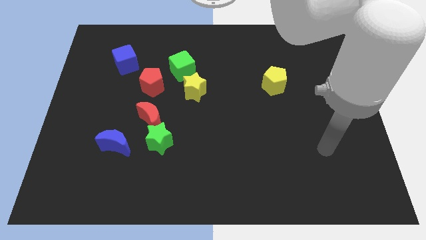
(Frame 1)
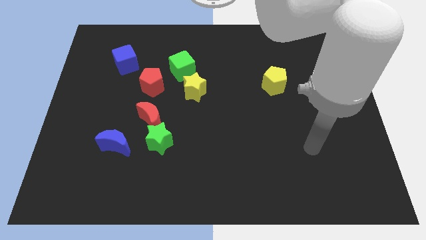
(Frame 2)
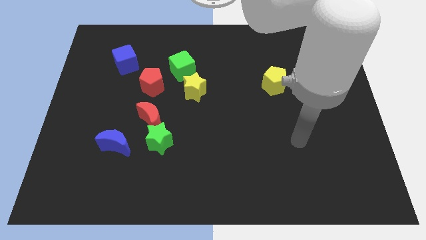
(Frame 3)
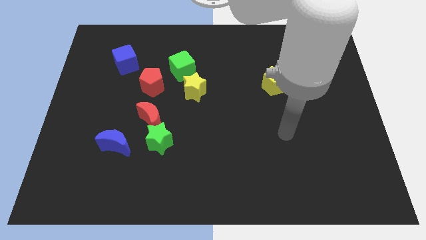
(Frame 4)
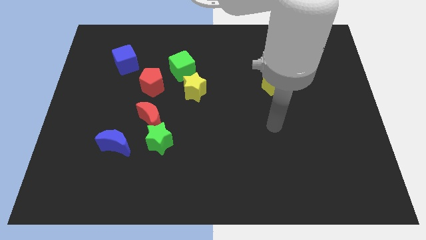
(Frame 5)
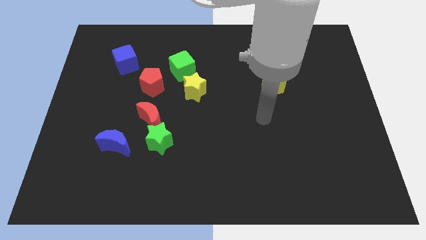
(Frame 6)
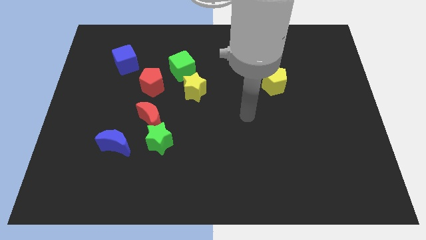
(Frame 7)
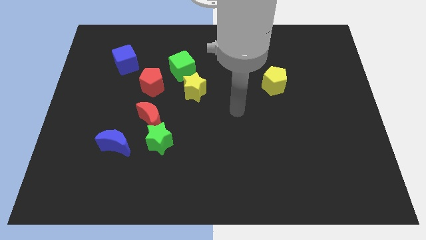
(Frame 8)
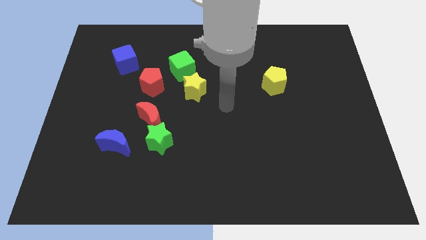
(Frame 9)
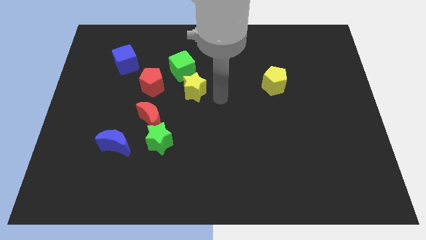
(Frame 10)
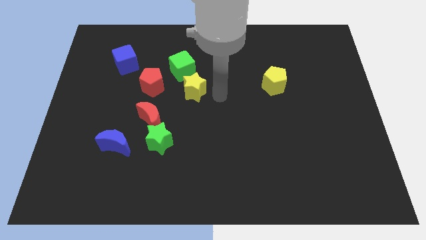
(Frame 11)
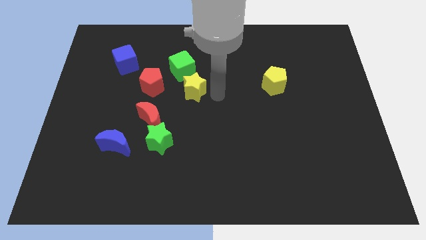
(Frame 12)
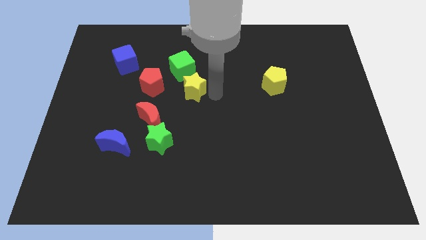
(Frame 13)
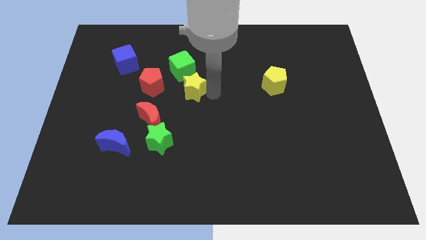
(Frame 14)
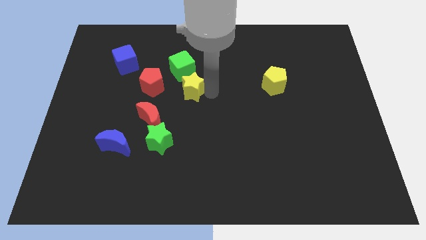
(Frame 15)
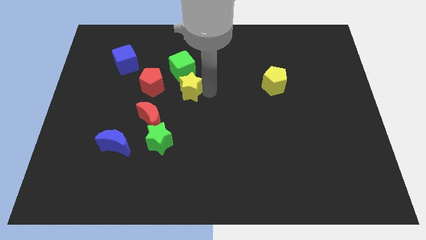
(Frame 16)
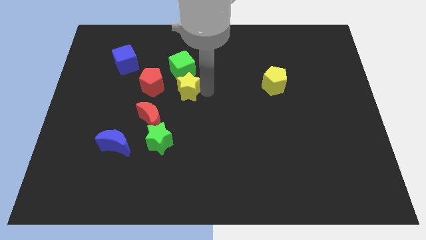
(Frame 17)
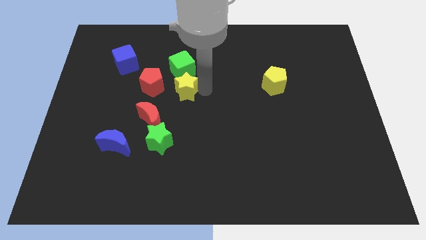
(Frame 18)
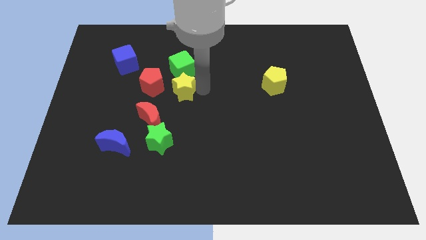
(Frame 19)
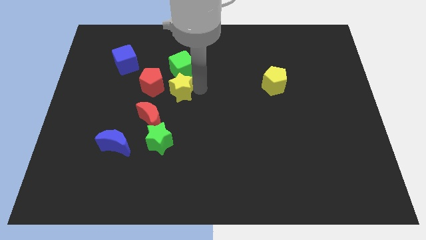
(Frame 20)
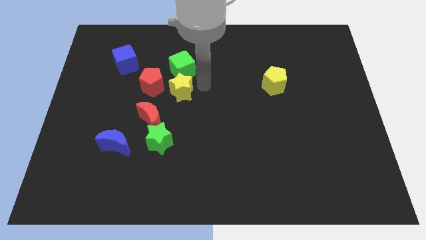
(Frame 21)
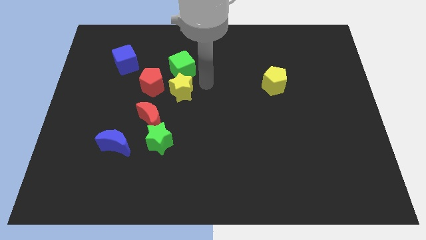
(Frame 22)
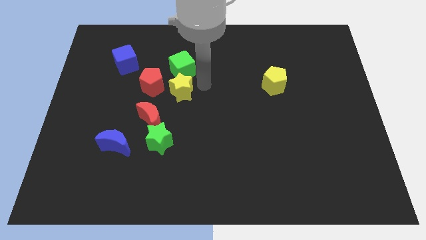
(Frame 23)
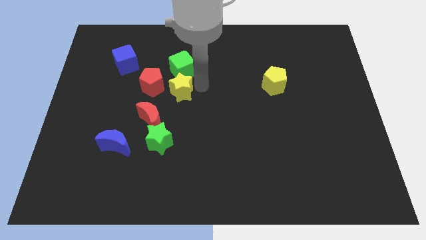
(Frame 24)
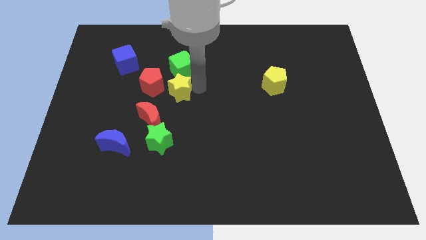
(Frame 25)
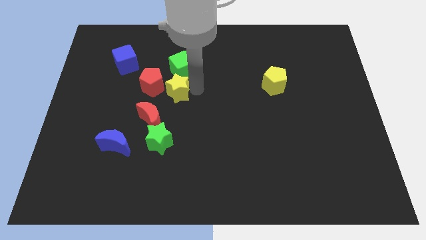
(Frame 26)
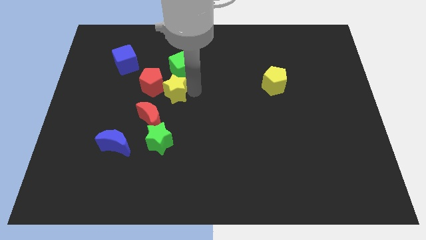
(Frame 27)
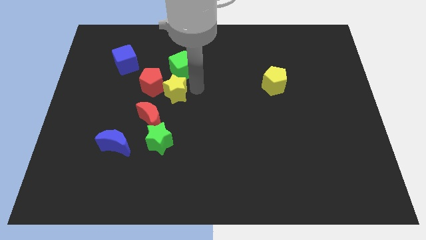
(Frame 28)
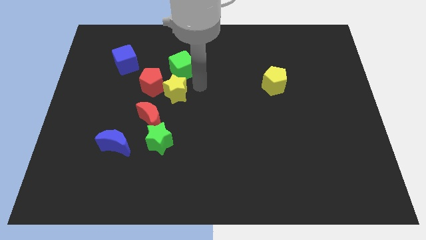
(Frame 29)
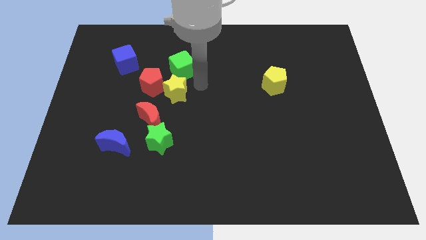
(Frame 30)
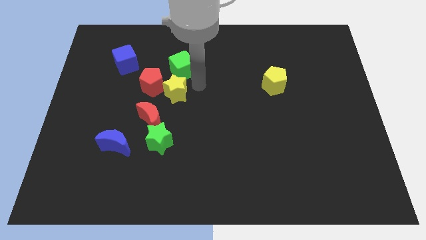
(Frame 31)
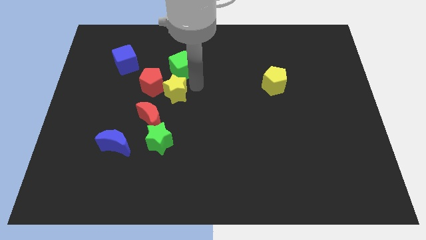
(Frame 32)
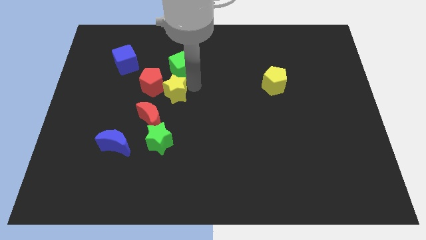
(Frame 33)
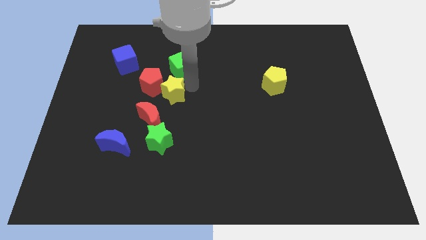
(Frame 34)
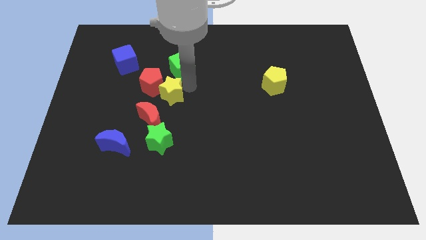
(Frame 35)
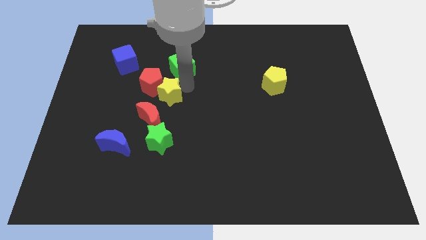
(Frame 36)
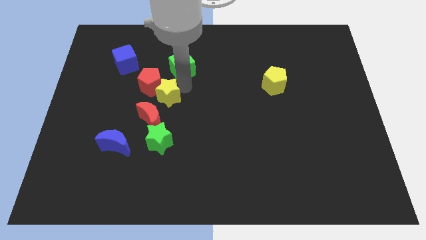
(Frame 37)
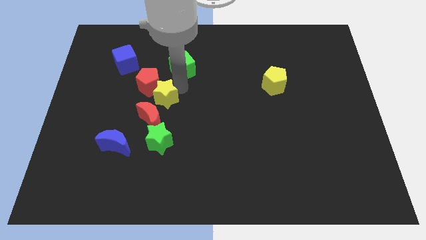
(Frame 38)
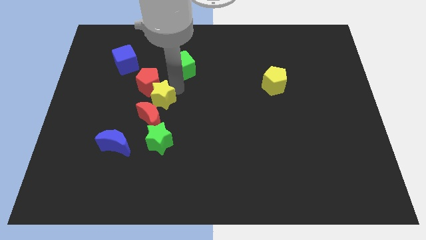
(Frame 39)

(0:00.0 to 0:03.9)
push the yellow star slightly to the left

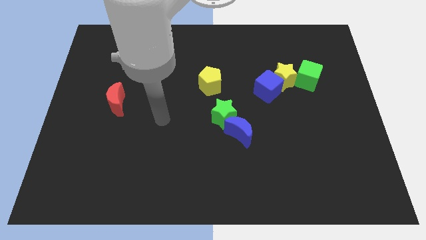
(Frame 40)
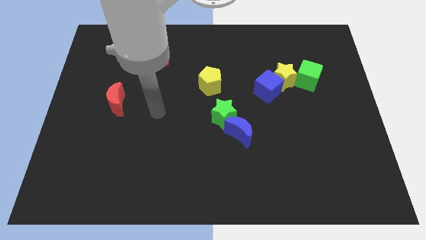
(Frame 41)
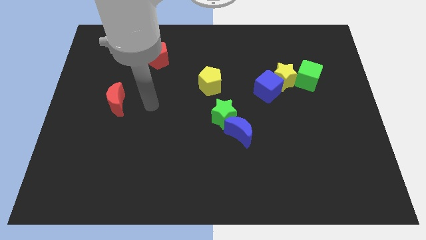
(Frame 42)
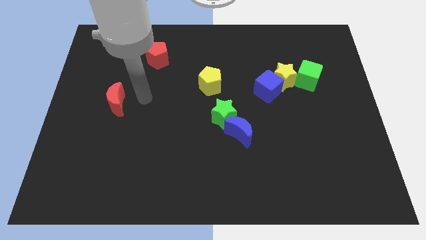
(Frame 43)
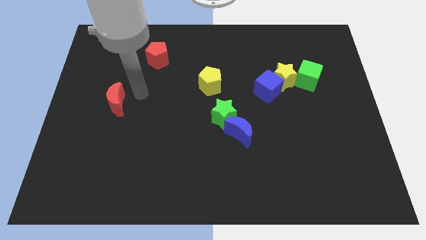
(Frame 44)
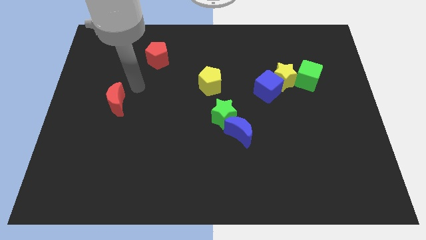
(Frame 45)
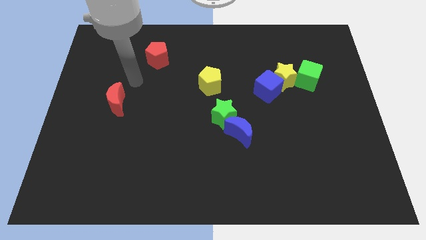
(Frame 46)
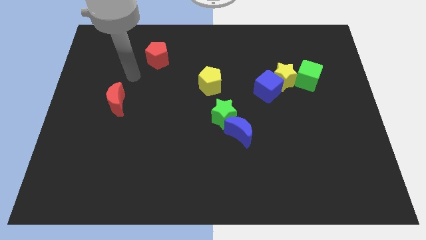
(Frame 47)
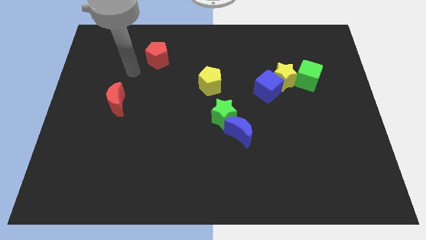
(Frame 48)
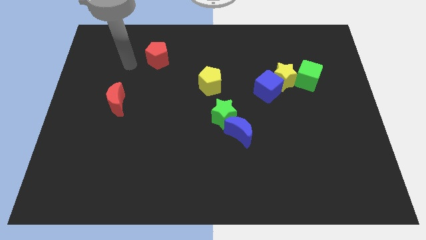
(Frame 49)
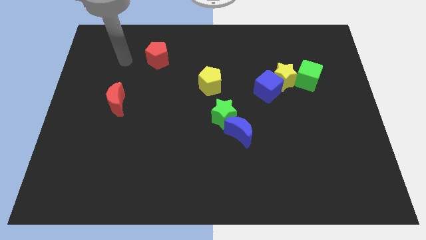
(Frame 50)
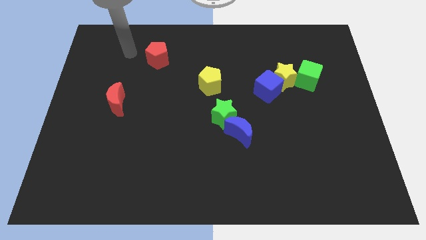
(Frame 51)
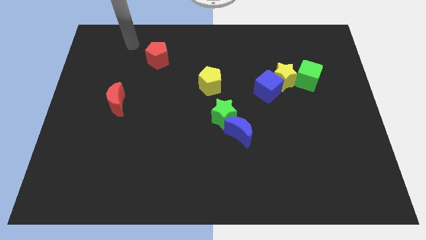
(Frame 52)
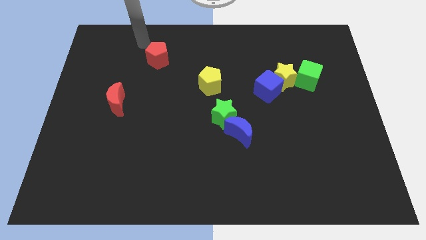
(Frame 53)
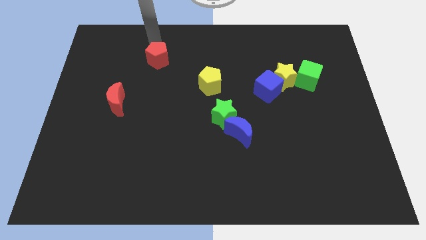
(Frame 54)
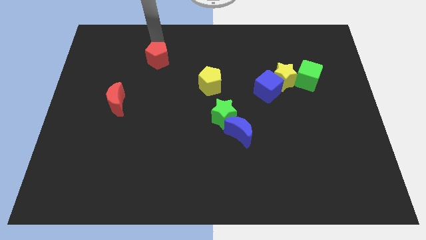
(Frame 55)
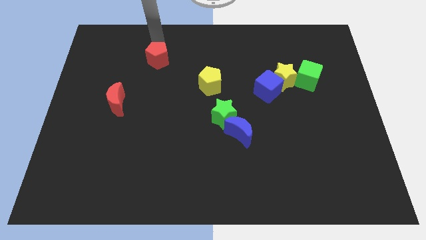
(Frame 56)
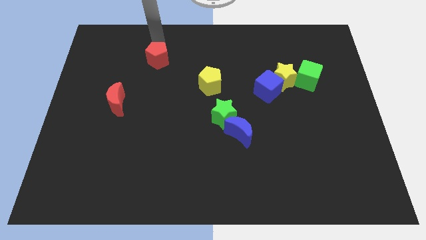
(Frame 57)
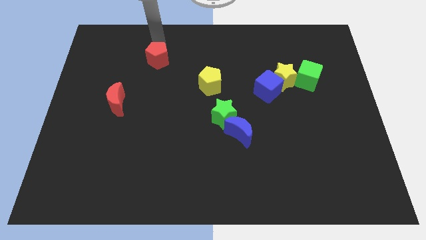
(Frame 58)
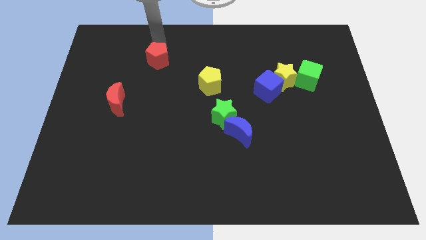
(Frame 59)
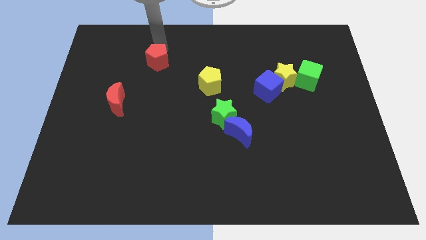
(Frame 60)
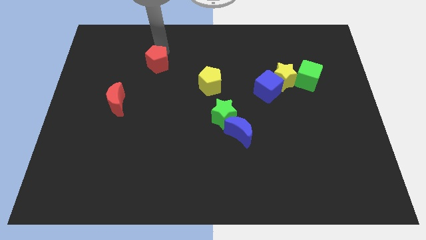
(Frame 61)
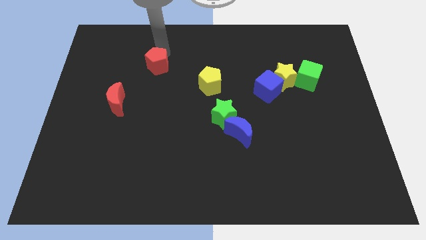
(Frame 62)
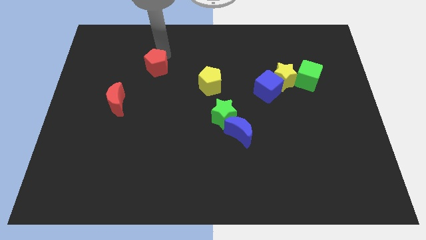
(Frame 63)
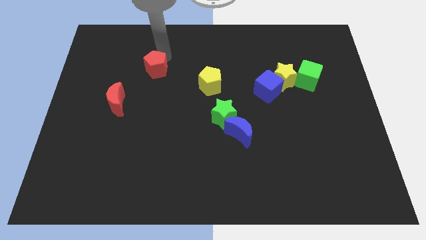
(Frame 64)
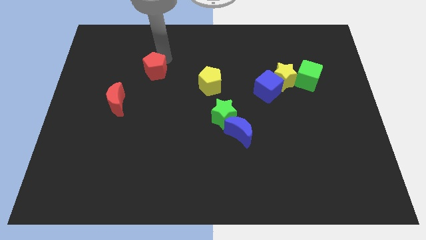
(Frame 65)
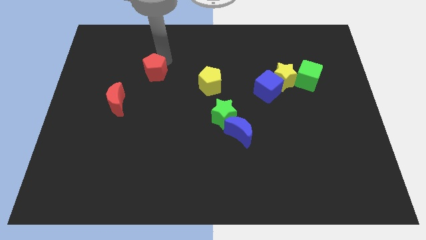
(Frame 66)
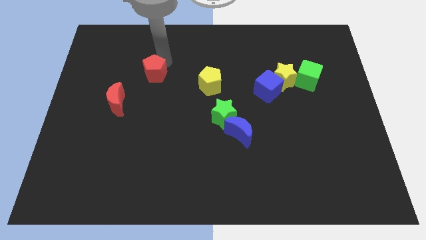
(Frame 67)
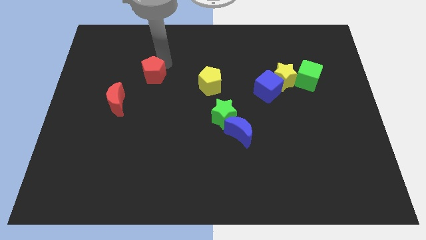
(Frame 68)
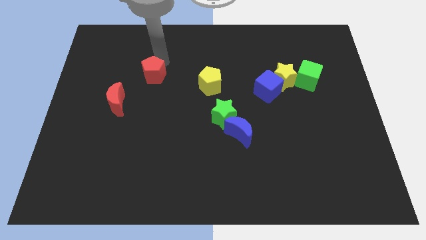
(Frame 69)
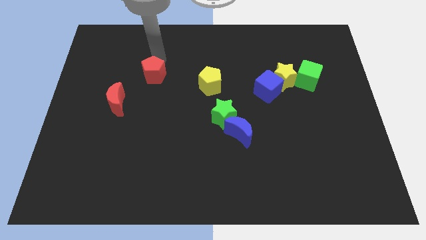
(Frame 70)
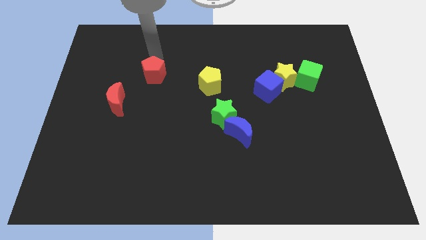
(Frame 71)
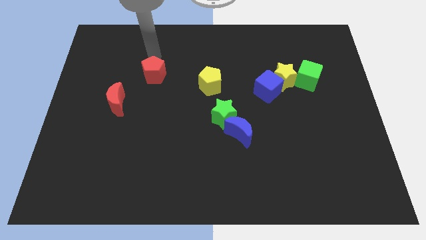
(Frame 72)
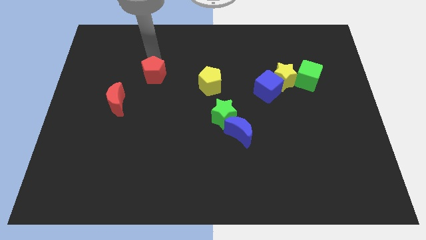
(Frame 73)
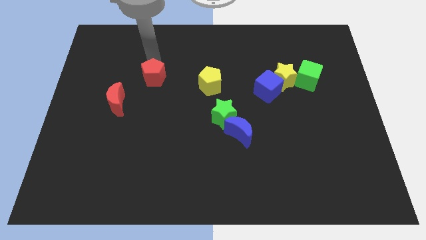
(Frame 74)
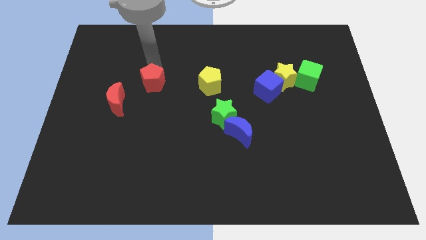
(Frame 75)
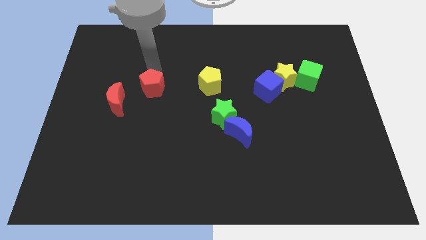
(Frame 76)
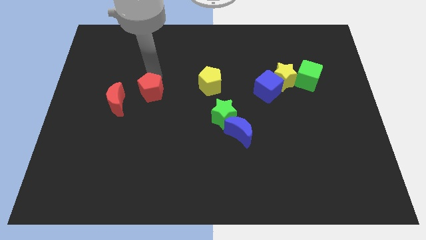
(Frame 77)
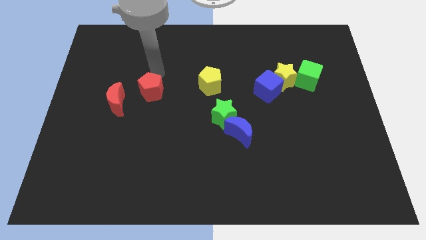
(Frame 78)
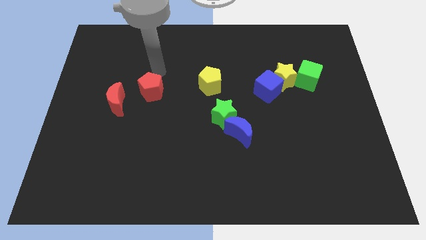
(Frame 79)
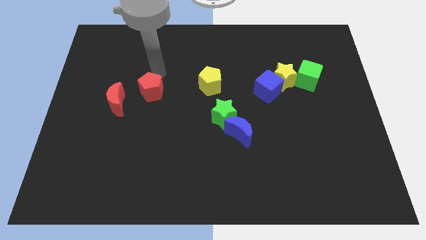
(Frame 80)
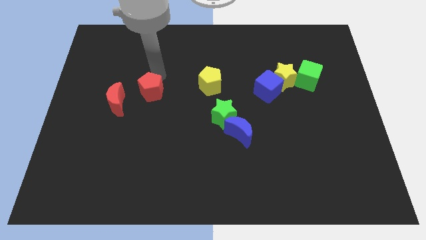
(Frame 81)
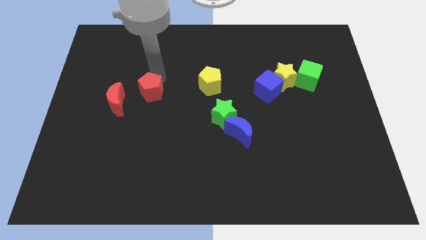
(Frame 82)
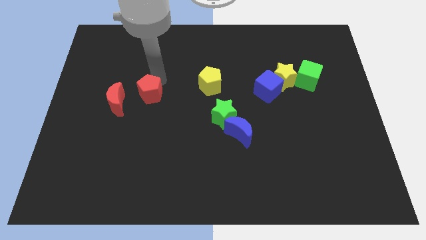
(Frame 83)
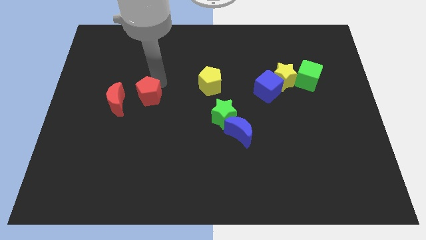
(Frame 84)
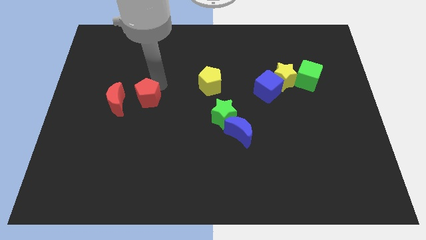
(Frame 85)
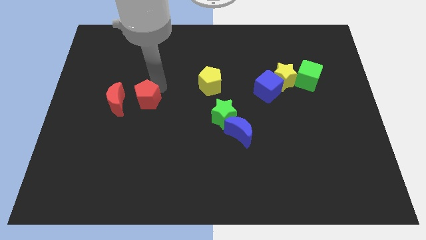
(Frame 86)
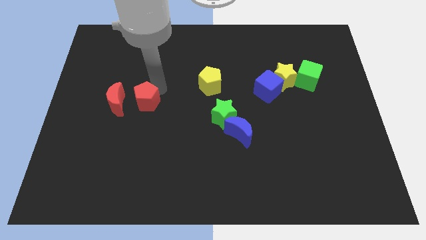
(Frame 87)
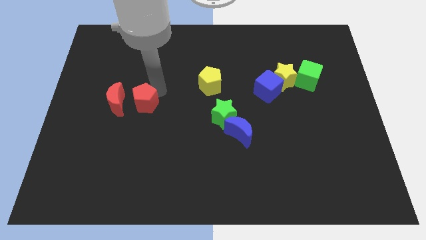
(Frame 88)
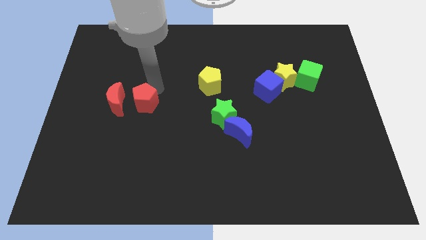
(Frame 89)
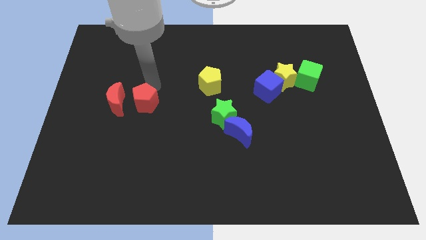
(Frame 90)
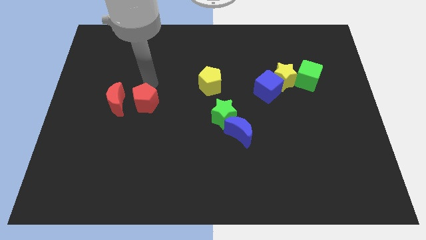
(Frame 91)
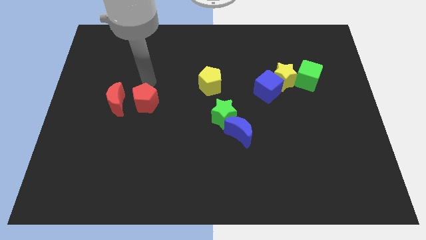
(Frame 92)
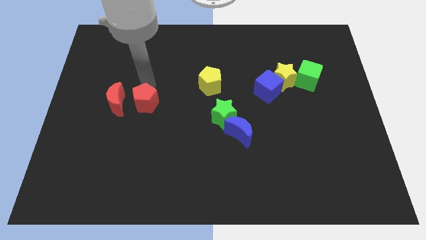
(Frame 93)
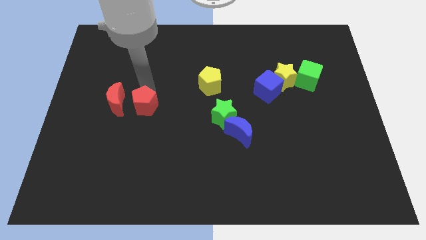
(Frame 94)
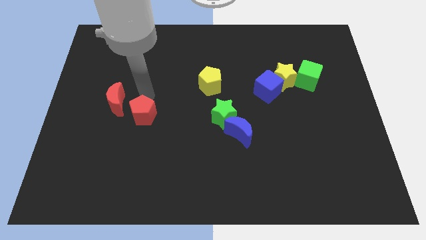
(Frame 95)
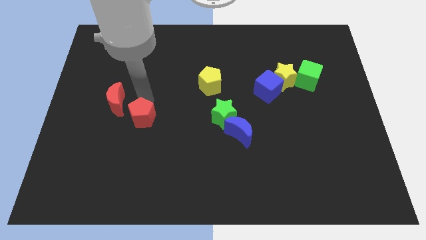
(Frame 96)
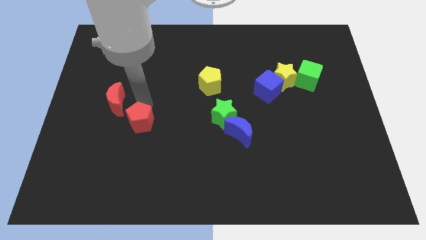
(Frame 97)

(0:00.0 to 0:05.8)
move the red pentagon down
